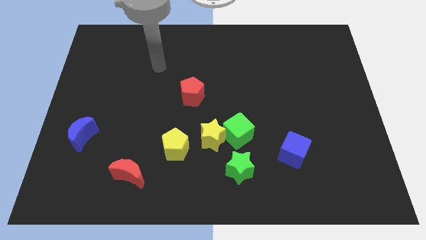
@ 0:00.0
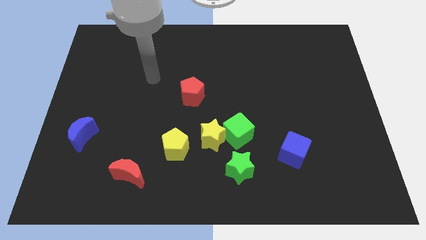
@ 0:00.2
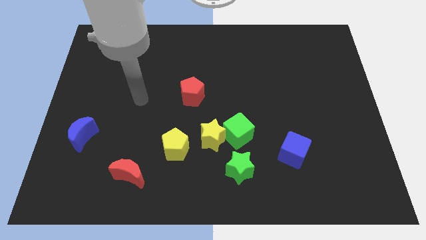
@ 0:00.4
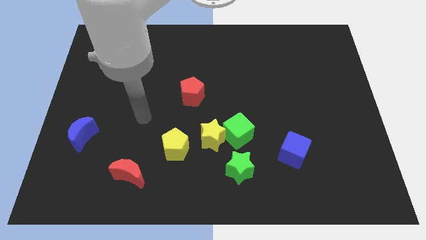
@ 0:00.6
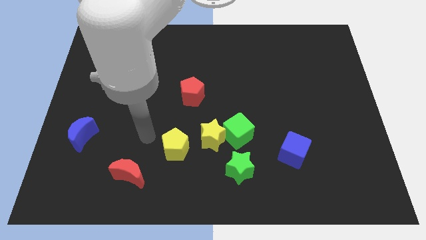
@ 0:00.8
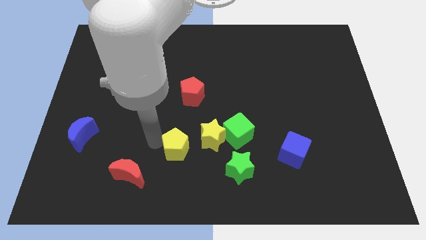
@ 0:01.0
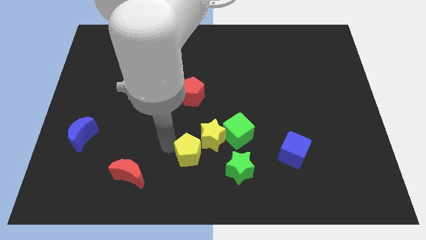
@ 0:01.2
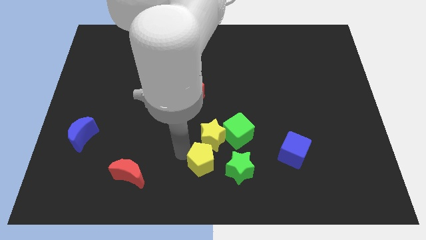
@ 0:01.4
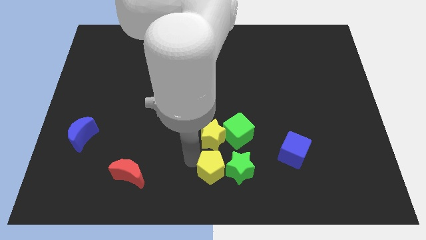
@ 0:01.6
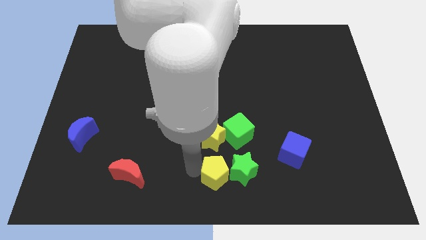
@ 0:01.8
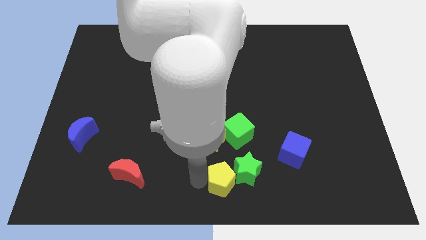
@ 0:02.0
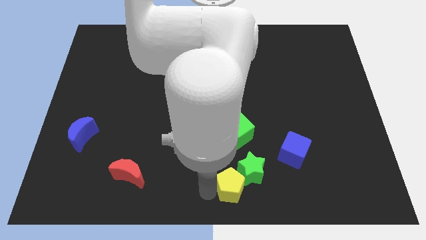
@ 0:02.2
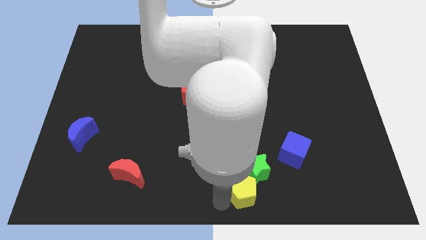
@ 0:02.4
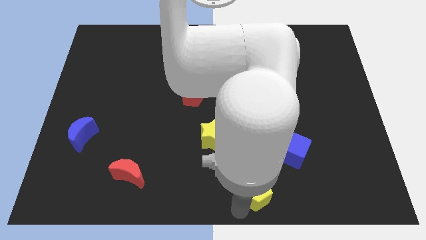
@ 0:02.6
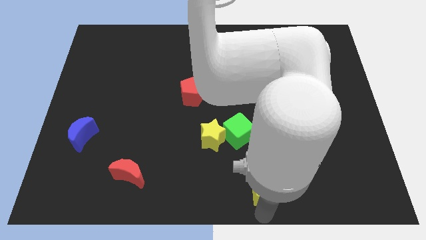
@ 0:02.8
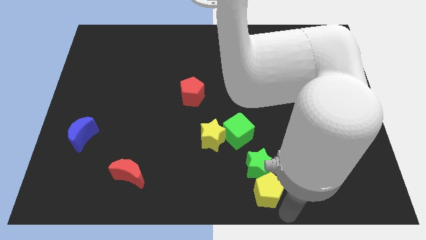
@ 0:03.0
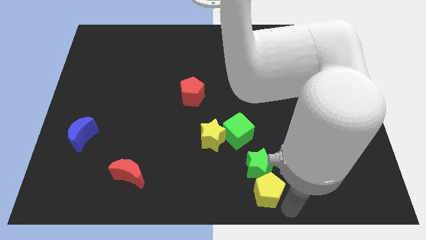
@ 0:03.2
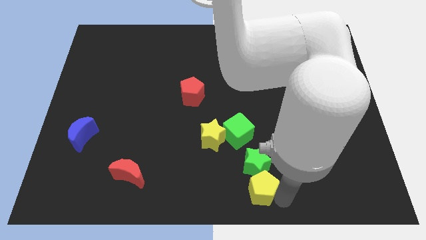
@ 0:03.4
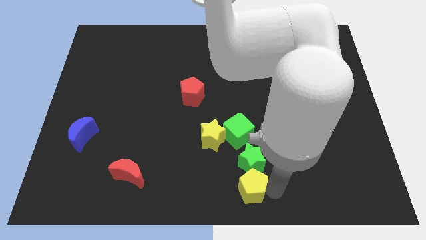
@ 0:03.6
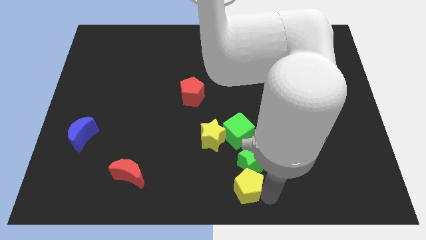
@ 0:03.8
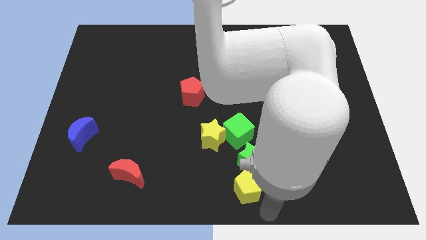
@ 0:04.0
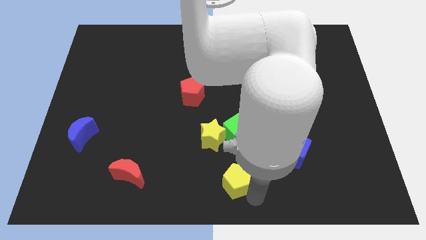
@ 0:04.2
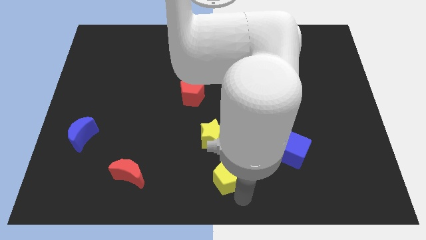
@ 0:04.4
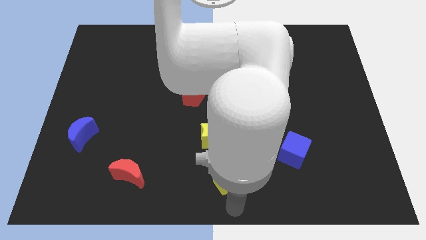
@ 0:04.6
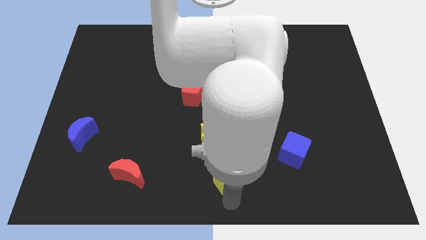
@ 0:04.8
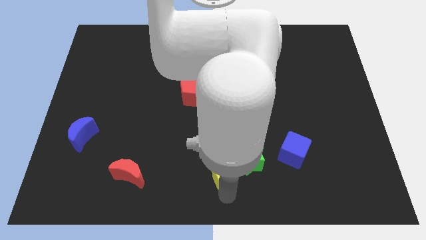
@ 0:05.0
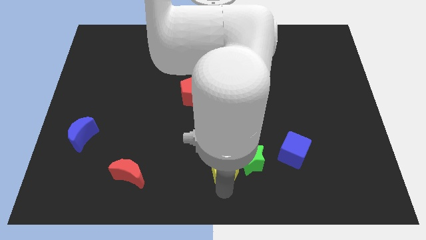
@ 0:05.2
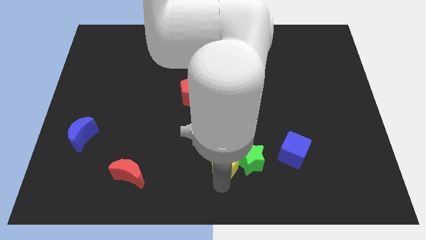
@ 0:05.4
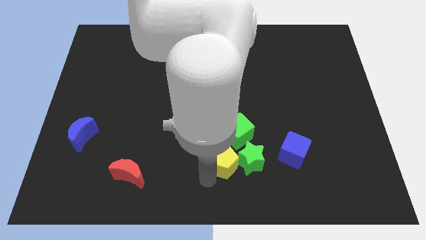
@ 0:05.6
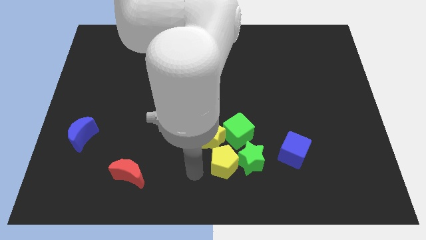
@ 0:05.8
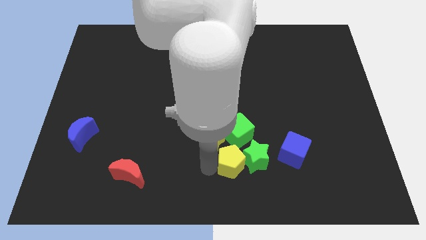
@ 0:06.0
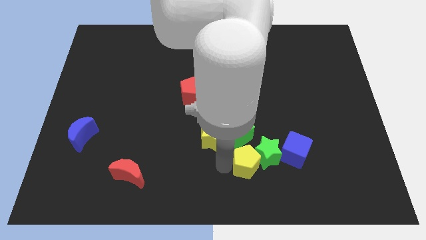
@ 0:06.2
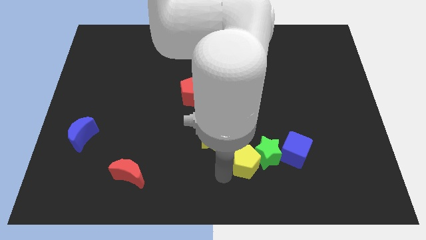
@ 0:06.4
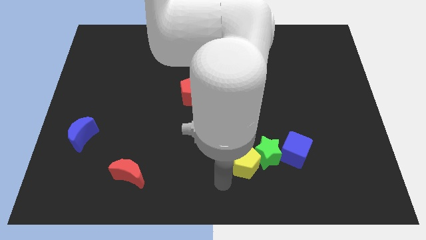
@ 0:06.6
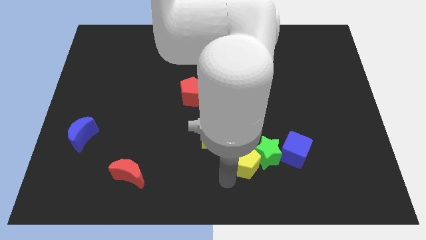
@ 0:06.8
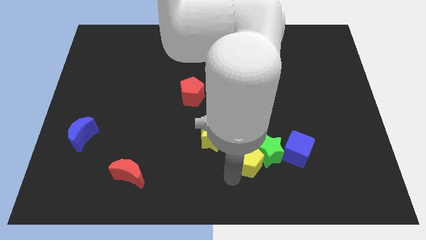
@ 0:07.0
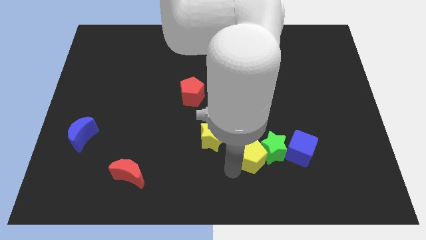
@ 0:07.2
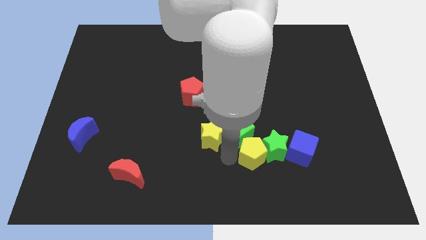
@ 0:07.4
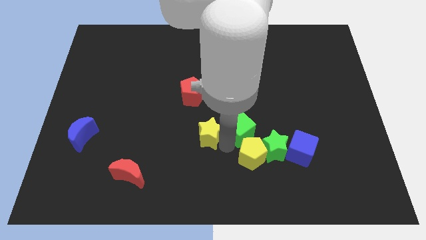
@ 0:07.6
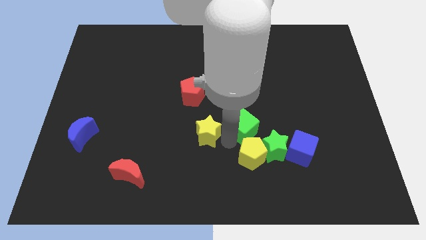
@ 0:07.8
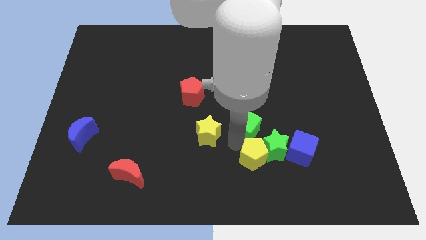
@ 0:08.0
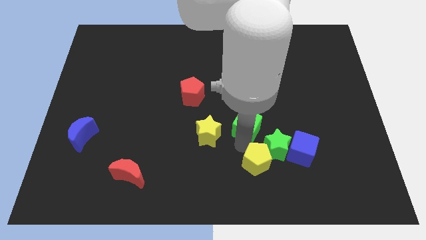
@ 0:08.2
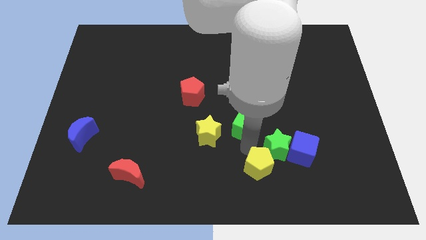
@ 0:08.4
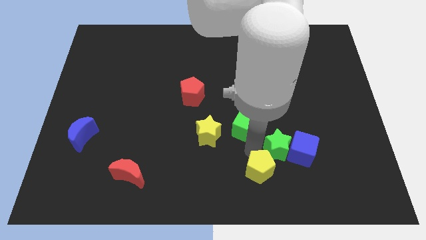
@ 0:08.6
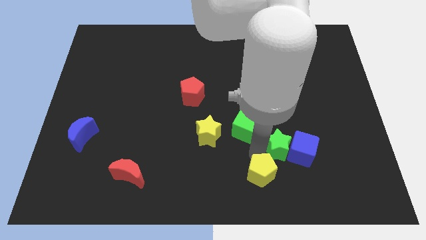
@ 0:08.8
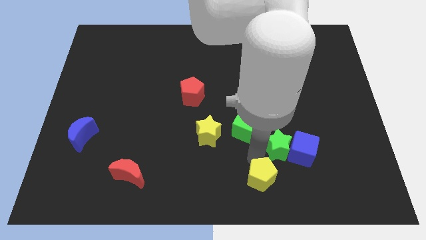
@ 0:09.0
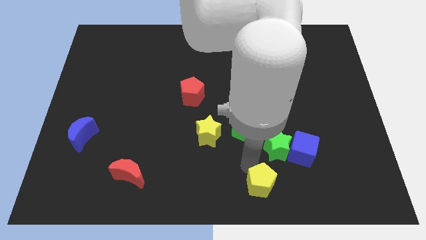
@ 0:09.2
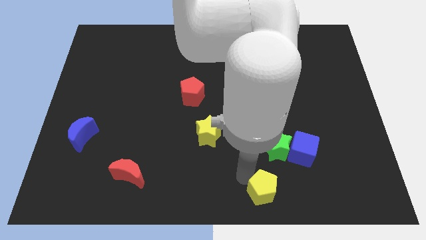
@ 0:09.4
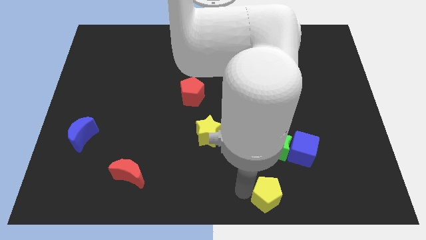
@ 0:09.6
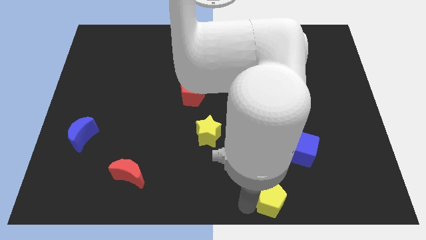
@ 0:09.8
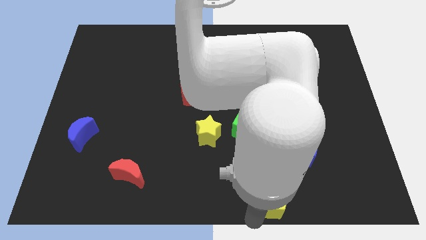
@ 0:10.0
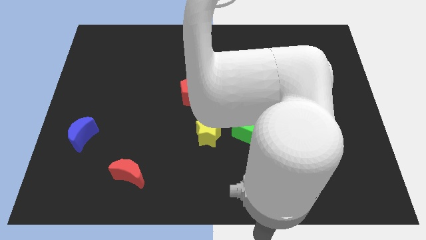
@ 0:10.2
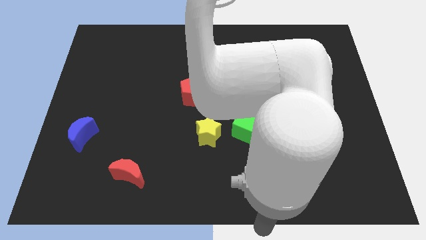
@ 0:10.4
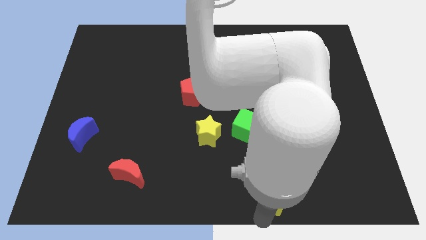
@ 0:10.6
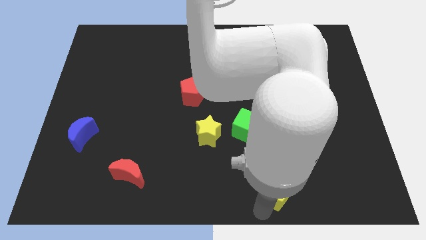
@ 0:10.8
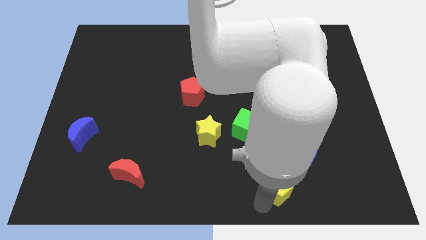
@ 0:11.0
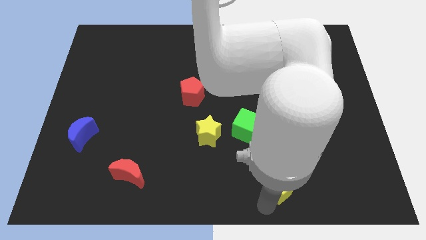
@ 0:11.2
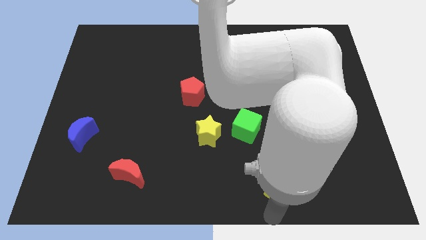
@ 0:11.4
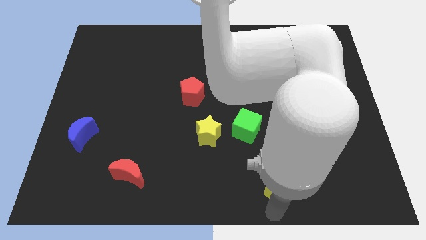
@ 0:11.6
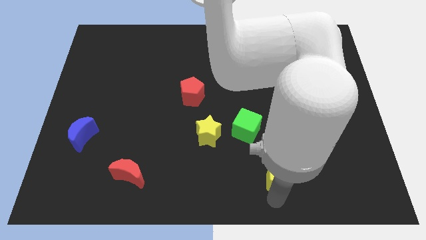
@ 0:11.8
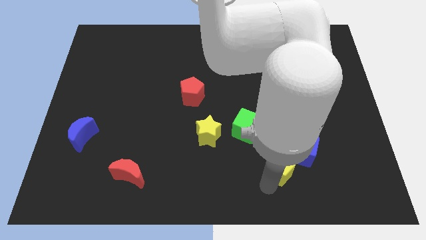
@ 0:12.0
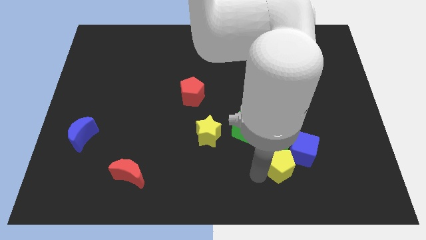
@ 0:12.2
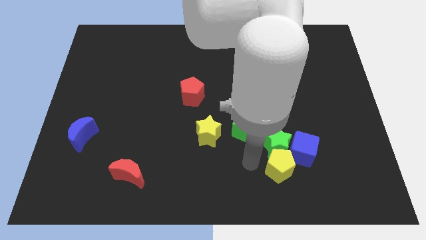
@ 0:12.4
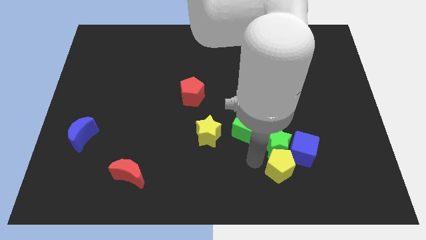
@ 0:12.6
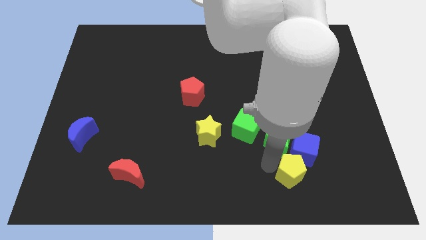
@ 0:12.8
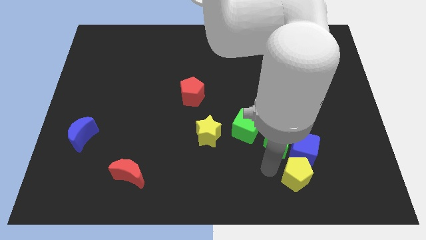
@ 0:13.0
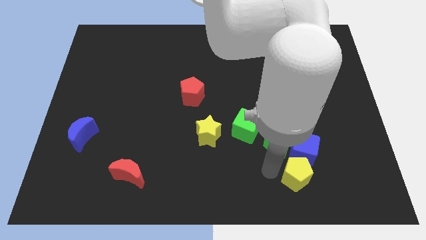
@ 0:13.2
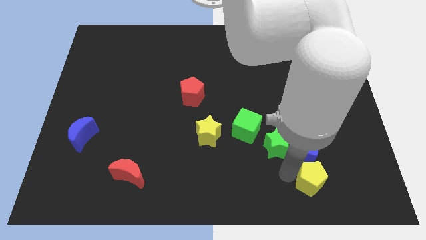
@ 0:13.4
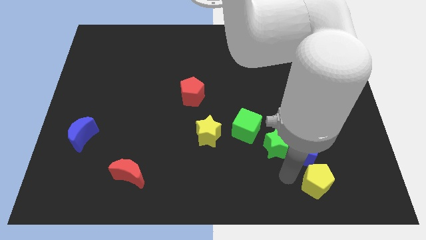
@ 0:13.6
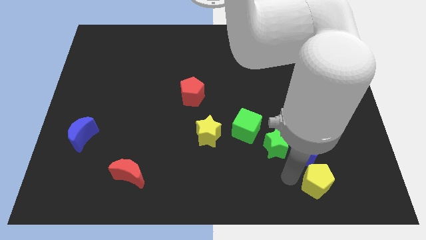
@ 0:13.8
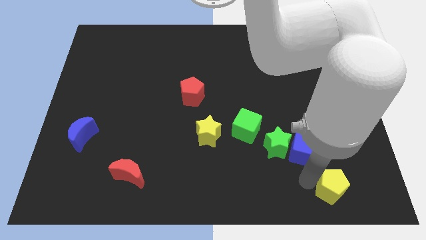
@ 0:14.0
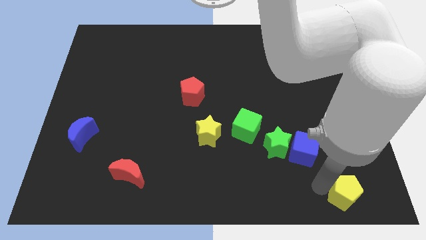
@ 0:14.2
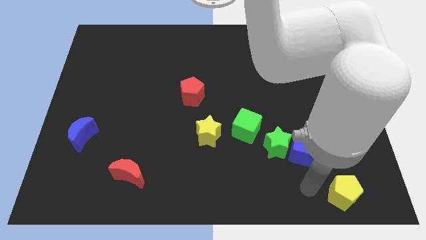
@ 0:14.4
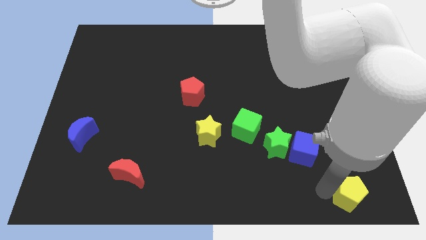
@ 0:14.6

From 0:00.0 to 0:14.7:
slide the yellow pentagon to the lower right corner
